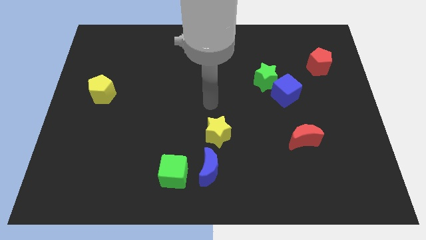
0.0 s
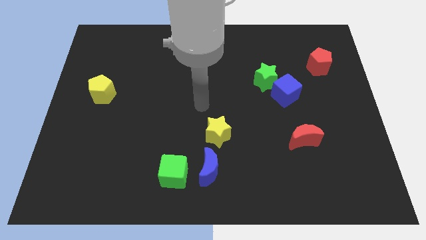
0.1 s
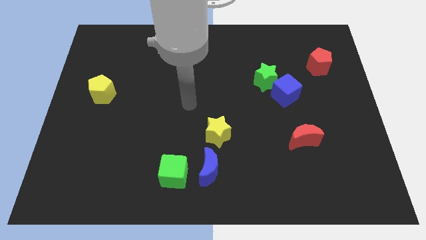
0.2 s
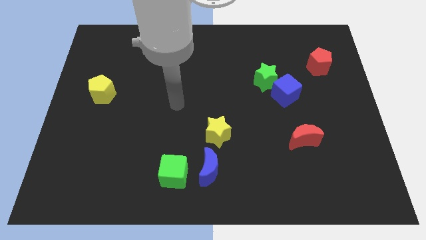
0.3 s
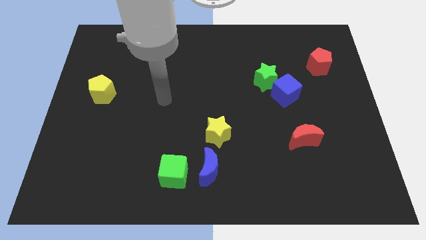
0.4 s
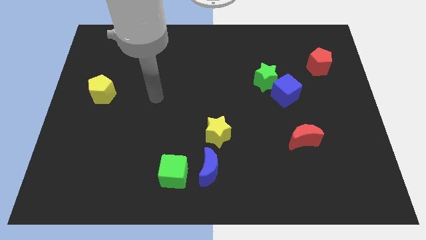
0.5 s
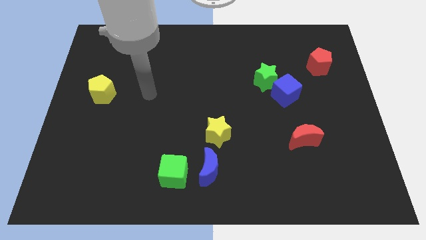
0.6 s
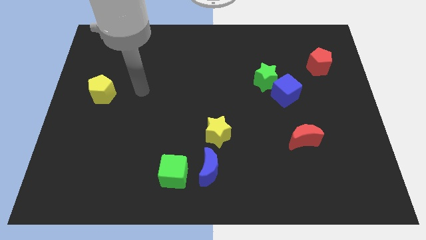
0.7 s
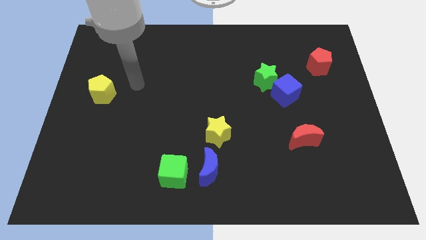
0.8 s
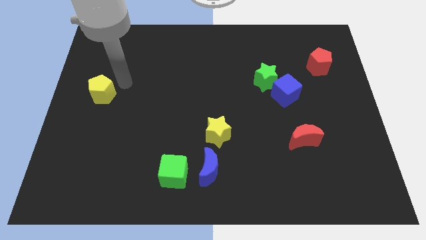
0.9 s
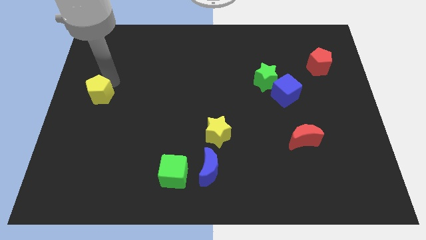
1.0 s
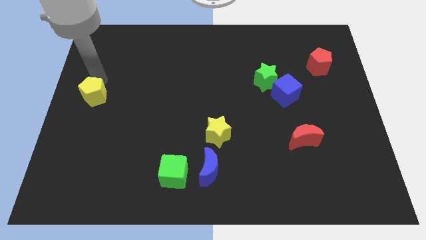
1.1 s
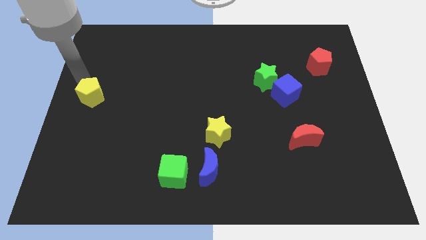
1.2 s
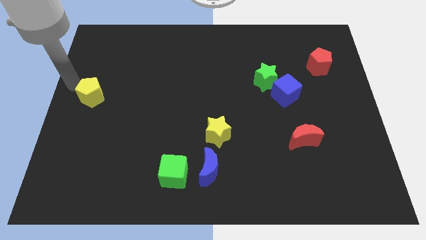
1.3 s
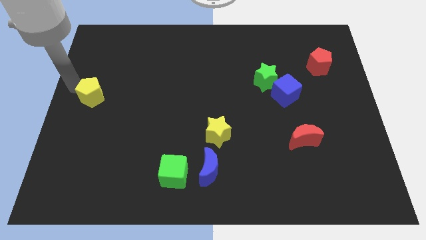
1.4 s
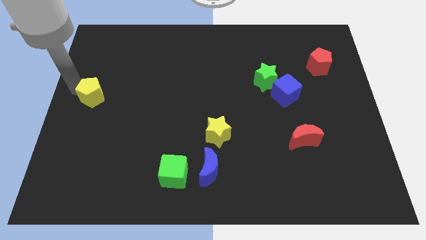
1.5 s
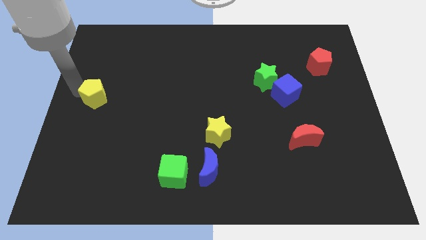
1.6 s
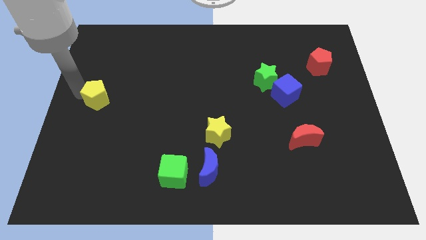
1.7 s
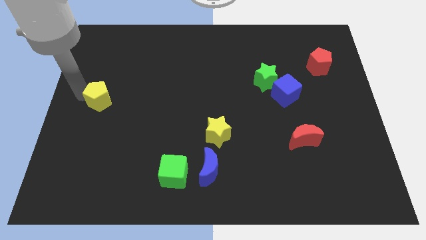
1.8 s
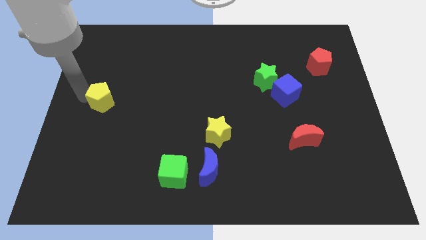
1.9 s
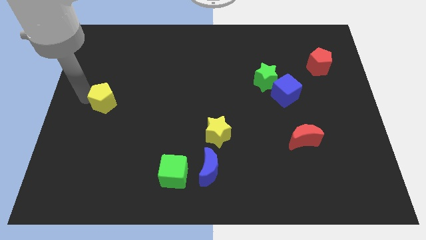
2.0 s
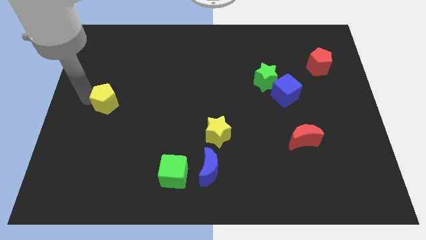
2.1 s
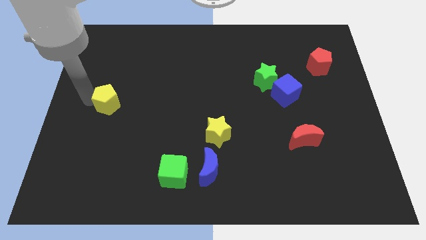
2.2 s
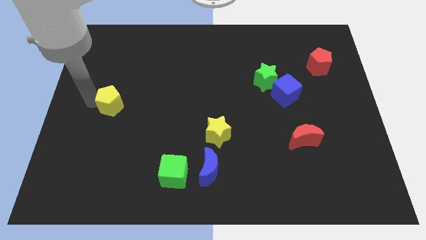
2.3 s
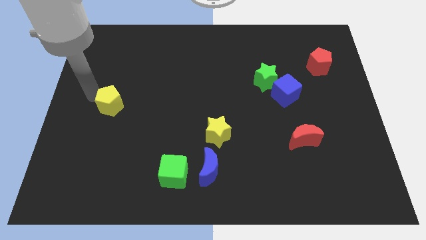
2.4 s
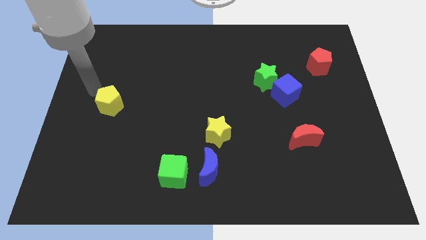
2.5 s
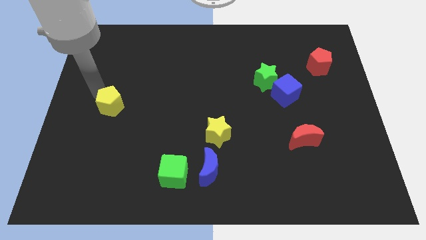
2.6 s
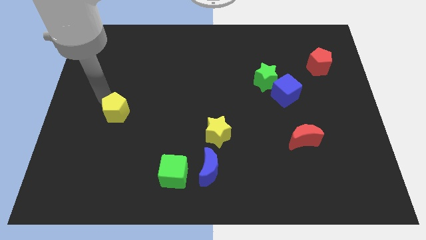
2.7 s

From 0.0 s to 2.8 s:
move the yellow pentagon down and right a little

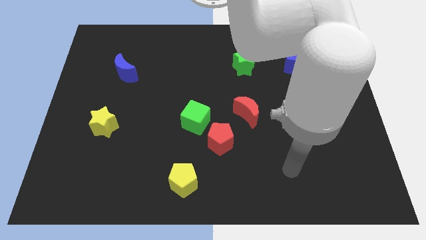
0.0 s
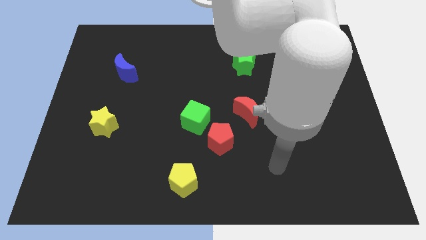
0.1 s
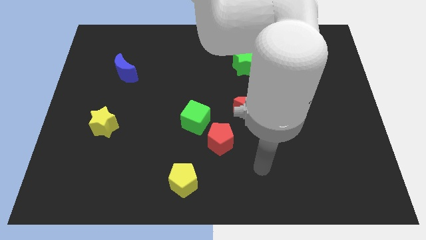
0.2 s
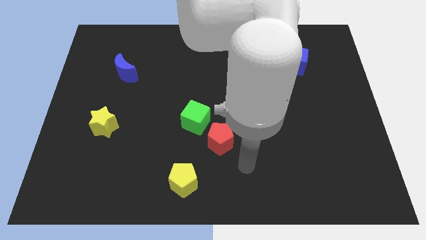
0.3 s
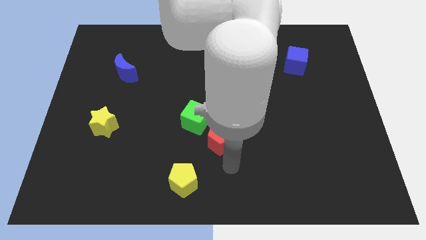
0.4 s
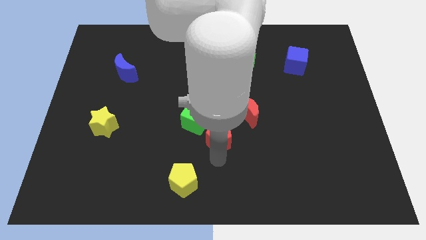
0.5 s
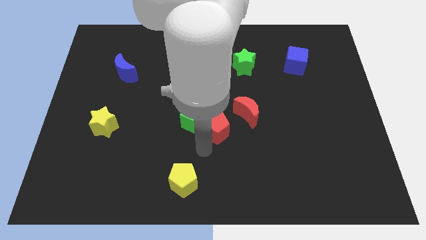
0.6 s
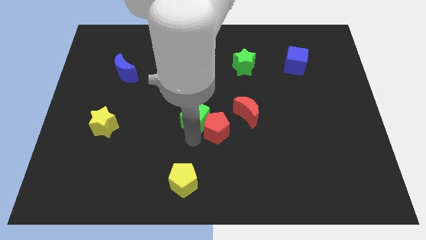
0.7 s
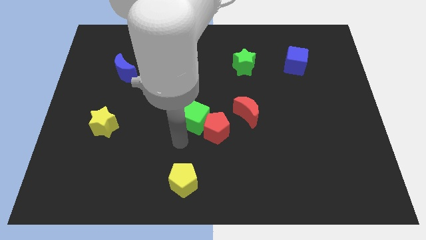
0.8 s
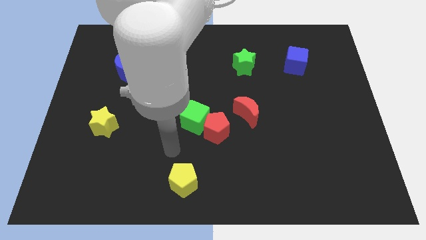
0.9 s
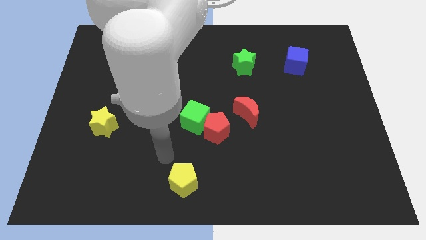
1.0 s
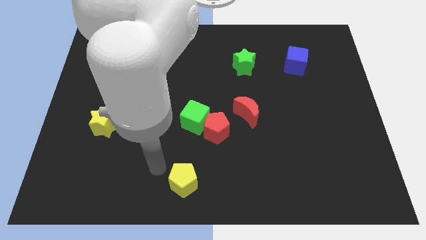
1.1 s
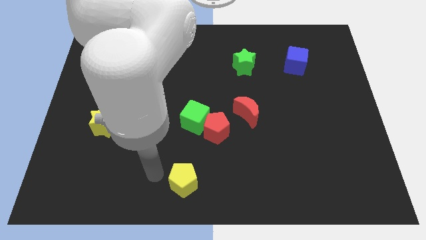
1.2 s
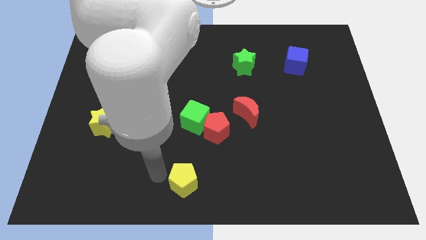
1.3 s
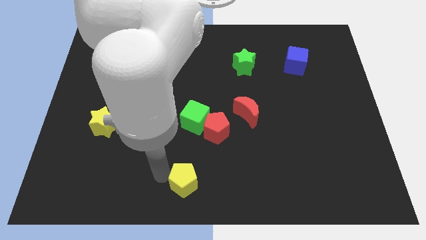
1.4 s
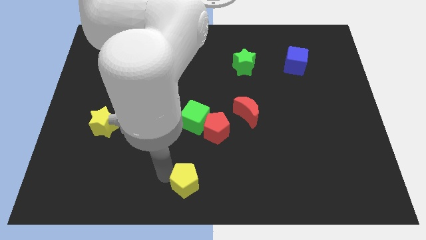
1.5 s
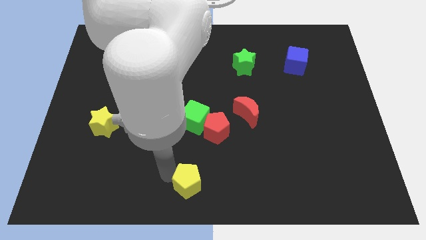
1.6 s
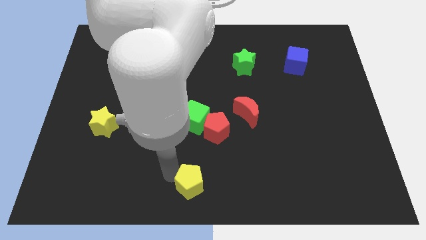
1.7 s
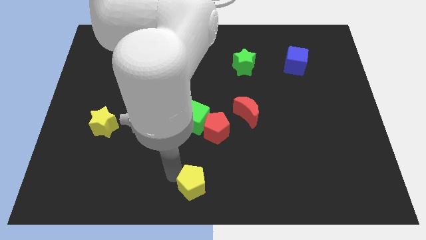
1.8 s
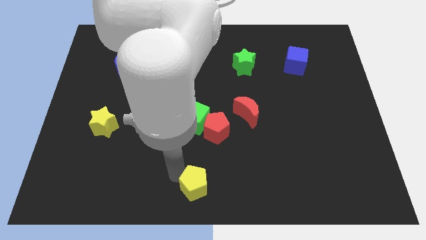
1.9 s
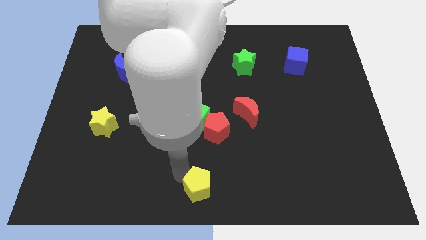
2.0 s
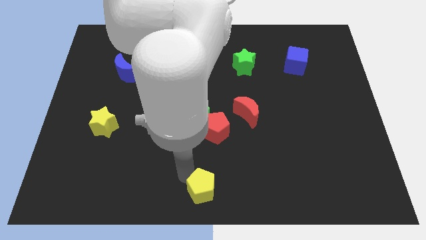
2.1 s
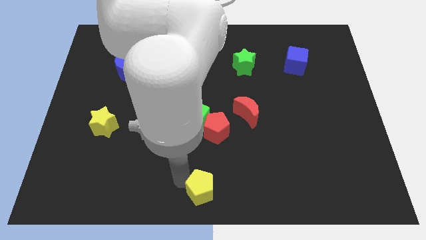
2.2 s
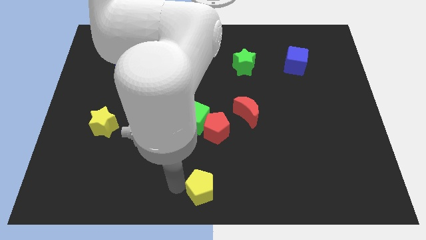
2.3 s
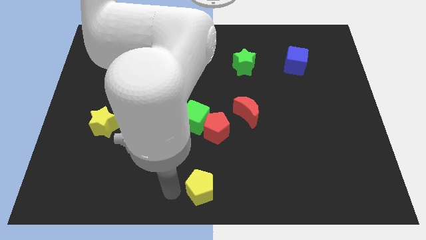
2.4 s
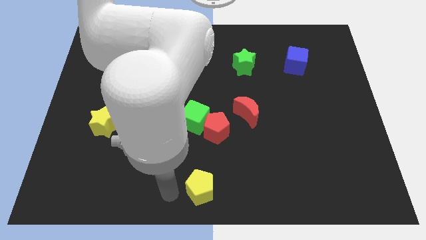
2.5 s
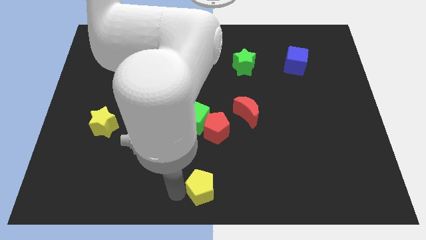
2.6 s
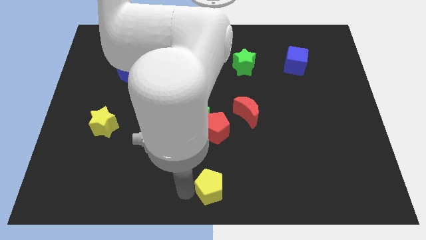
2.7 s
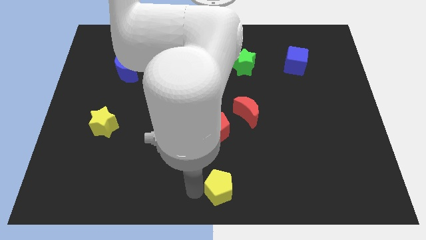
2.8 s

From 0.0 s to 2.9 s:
slide the yellow pentagon somewhat right

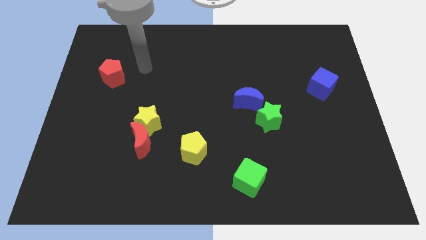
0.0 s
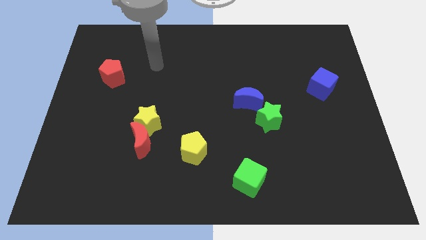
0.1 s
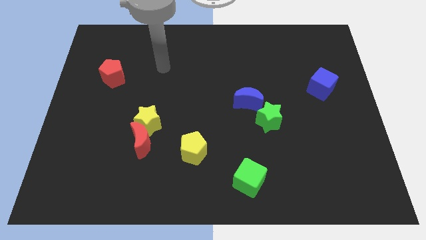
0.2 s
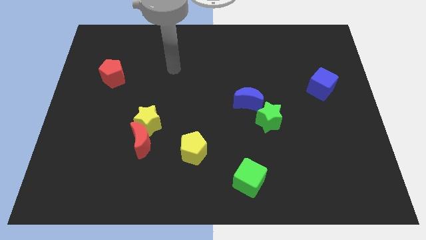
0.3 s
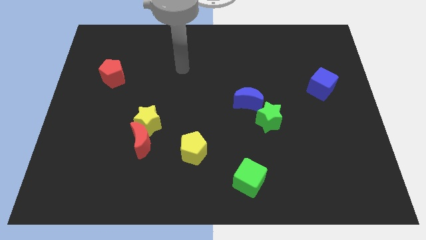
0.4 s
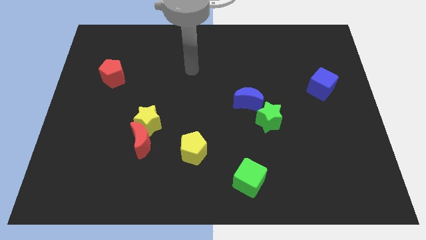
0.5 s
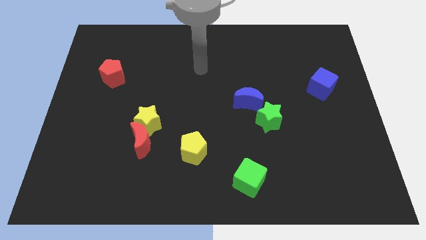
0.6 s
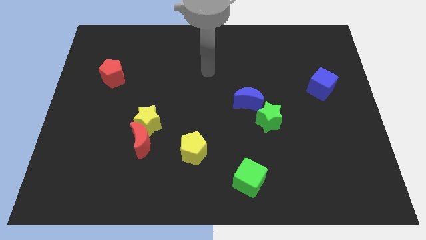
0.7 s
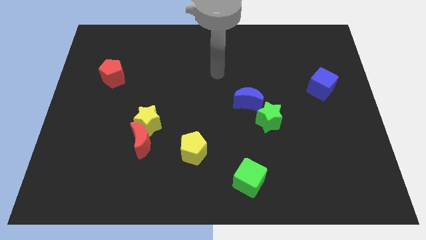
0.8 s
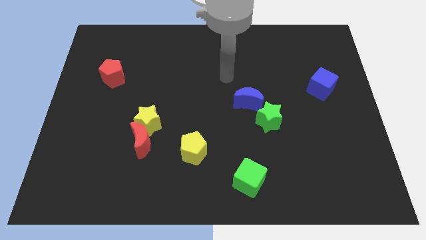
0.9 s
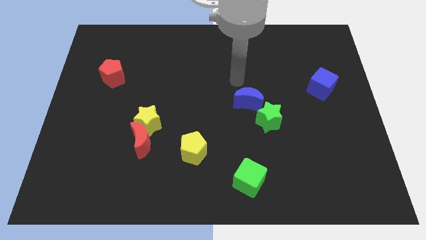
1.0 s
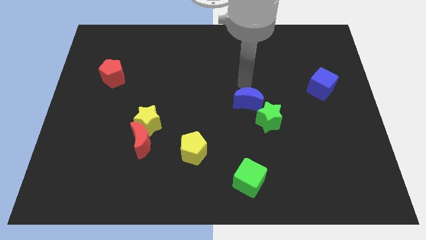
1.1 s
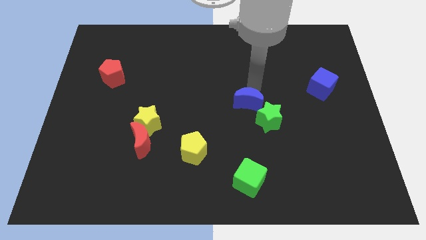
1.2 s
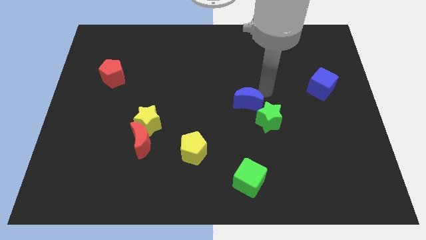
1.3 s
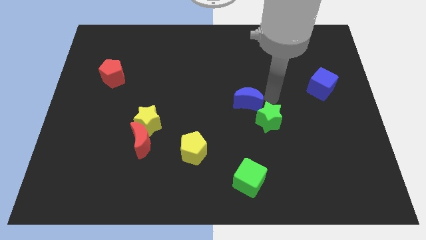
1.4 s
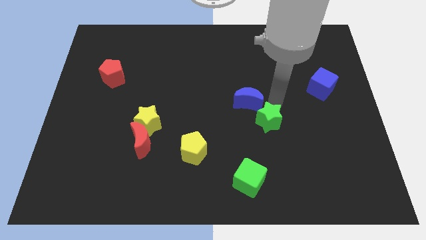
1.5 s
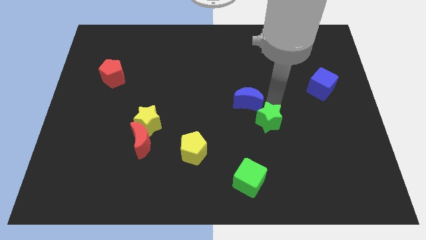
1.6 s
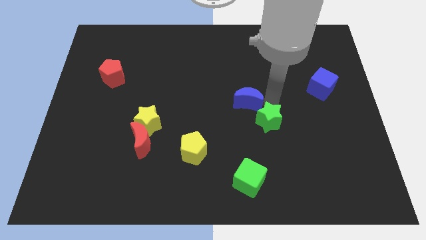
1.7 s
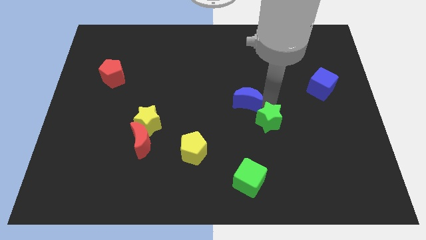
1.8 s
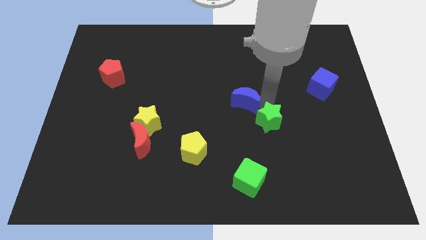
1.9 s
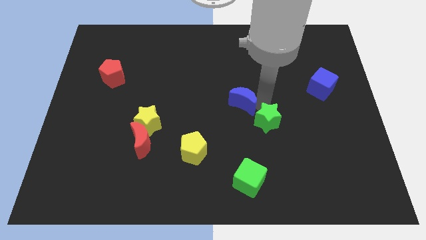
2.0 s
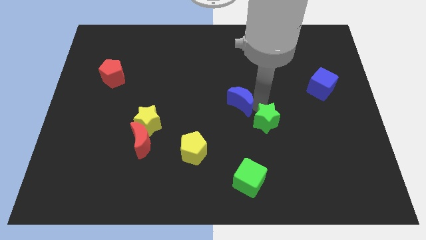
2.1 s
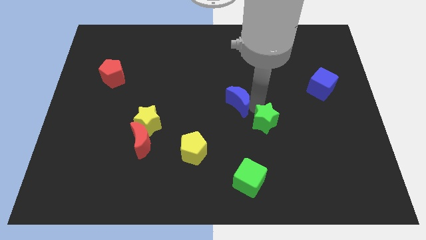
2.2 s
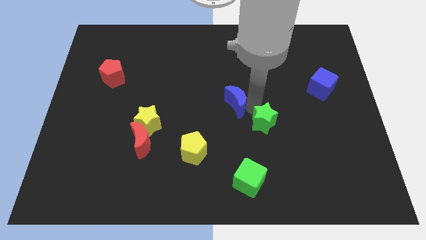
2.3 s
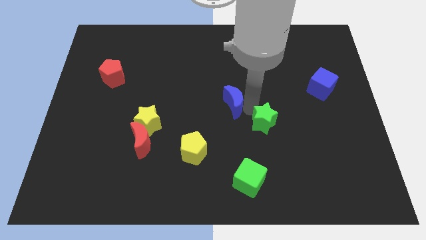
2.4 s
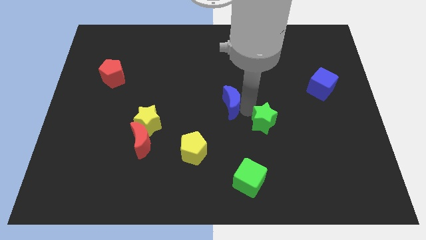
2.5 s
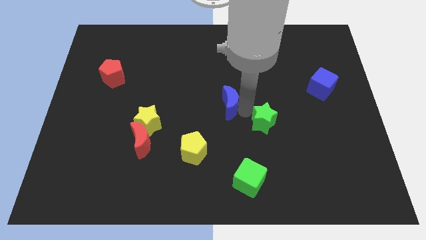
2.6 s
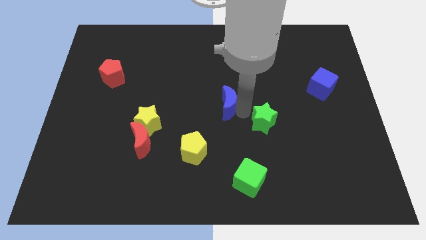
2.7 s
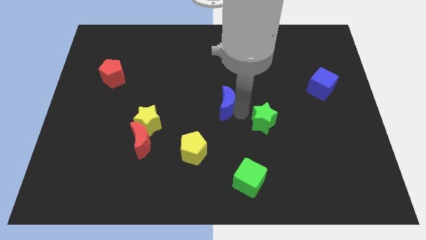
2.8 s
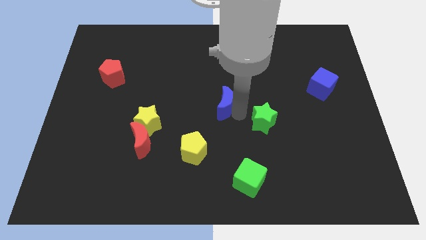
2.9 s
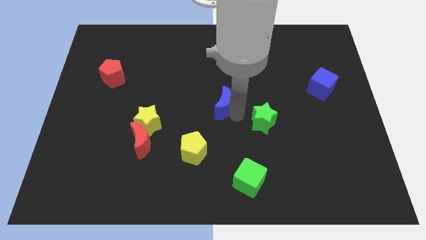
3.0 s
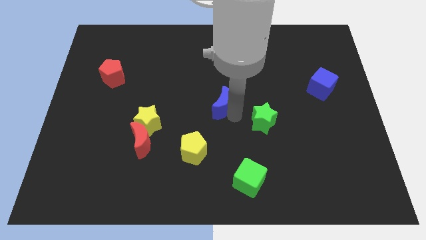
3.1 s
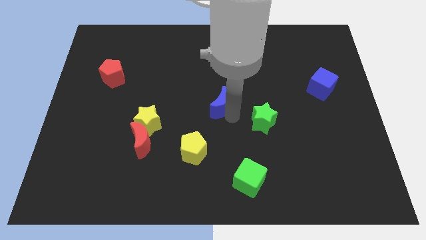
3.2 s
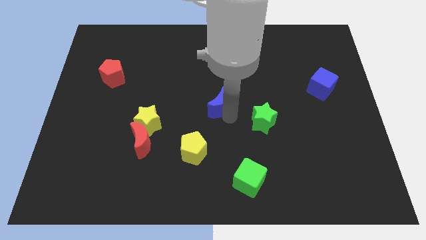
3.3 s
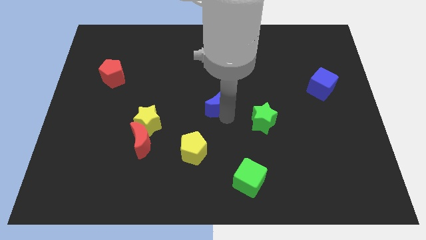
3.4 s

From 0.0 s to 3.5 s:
slide the blue moon left a little bit
